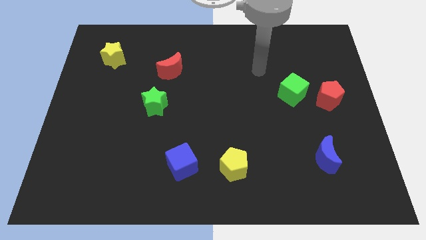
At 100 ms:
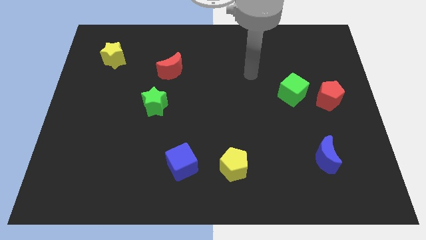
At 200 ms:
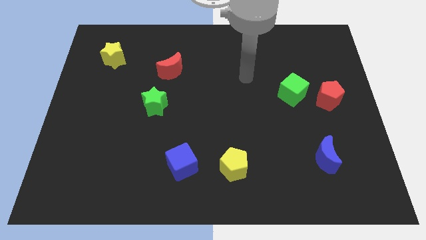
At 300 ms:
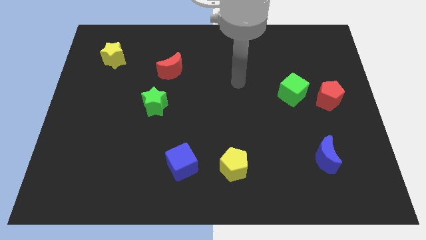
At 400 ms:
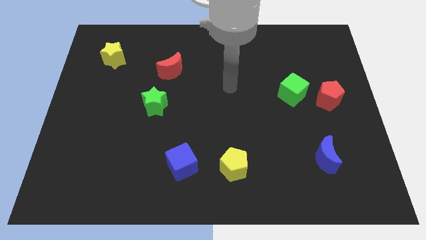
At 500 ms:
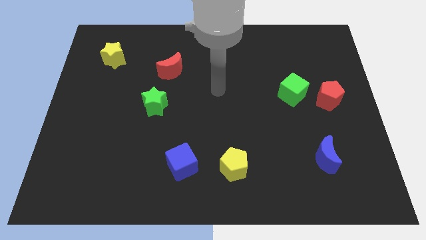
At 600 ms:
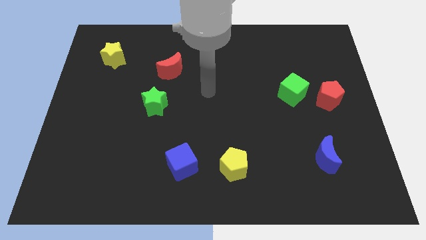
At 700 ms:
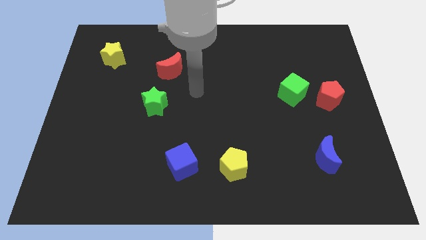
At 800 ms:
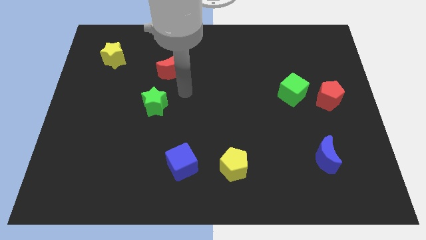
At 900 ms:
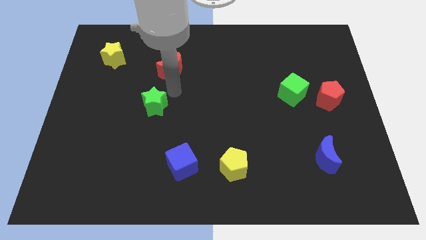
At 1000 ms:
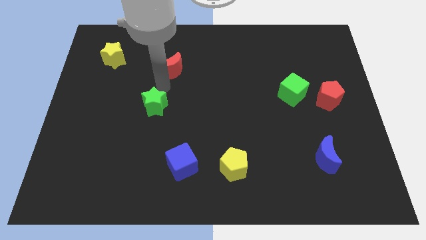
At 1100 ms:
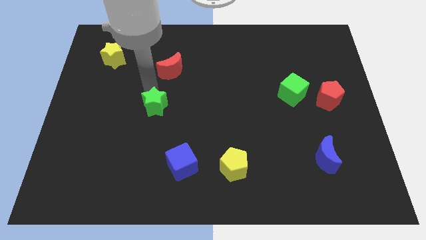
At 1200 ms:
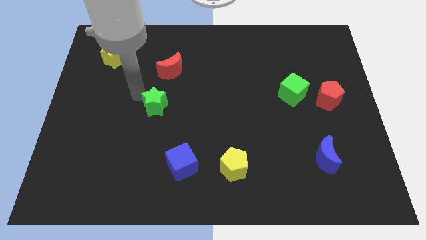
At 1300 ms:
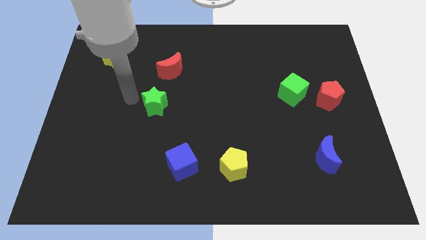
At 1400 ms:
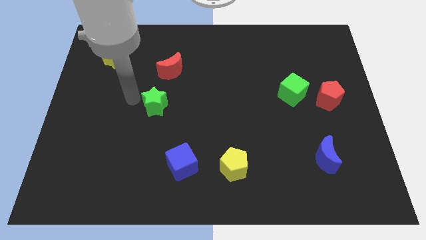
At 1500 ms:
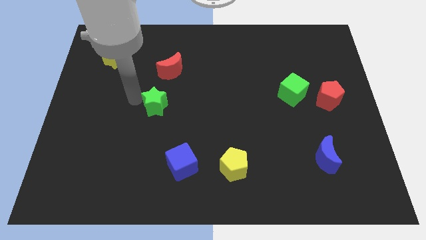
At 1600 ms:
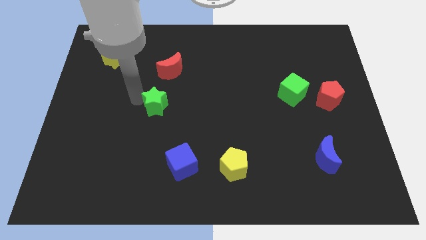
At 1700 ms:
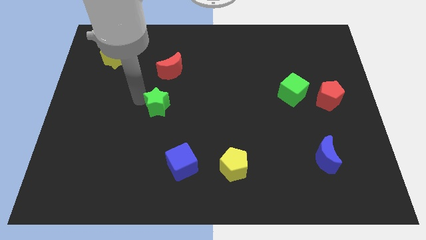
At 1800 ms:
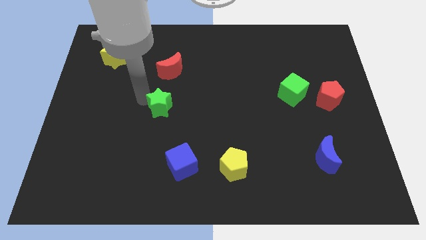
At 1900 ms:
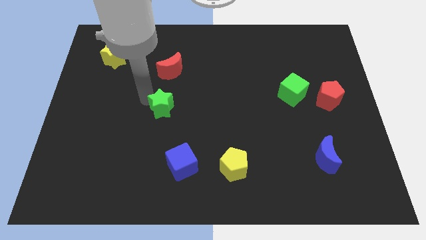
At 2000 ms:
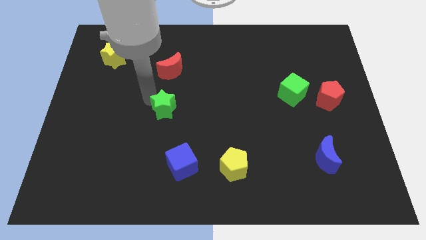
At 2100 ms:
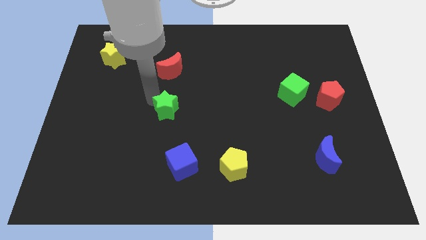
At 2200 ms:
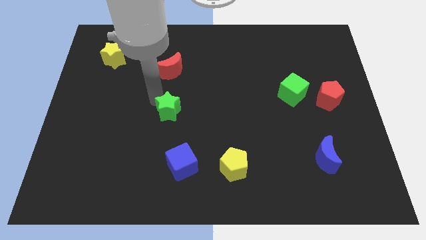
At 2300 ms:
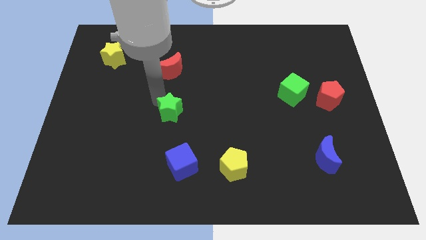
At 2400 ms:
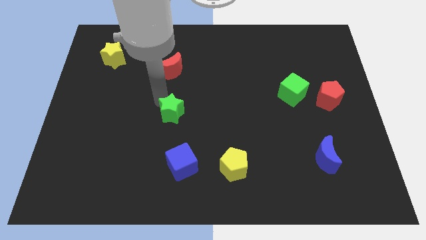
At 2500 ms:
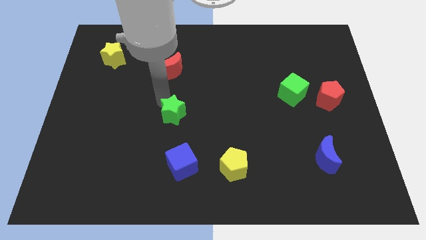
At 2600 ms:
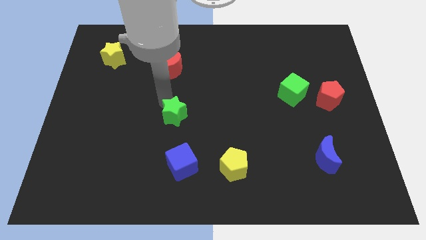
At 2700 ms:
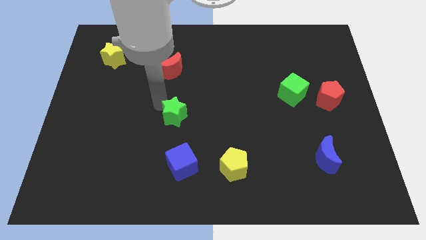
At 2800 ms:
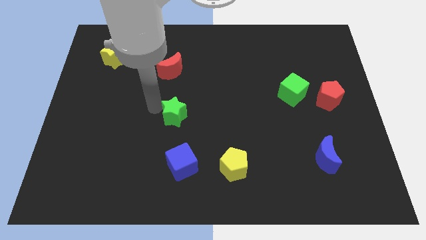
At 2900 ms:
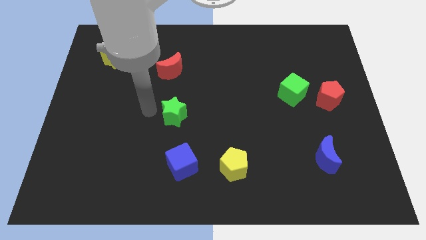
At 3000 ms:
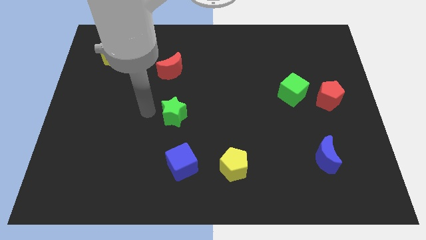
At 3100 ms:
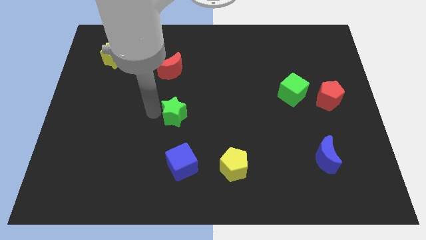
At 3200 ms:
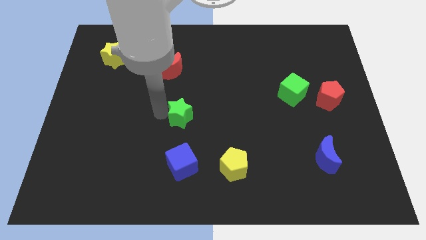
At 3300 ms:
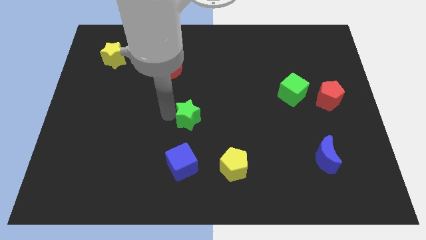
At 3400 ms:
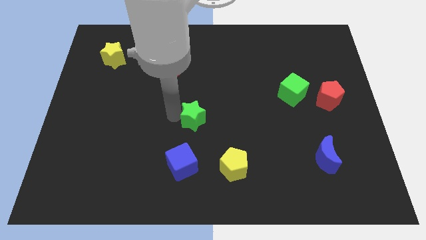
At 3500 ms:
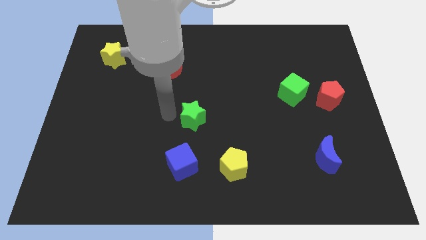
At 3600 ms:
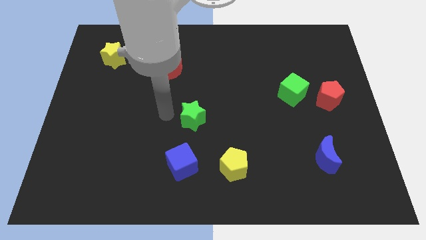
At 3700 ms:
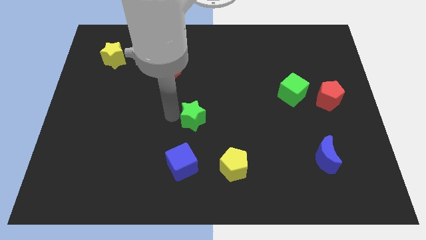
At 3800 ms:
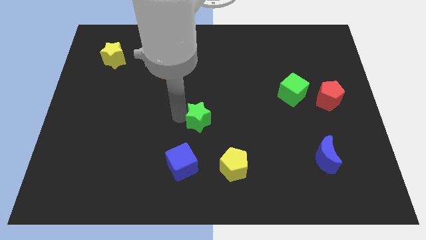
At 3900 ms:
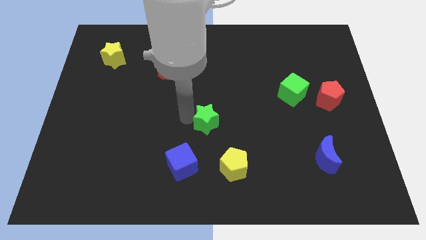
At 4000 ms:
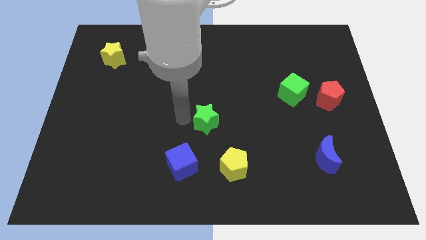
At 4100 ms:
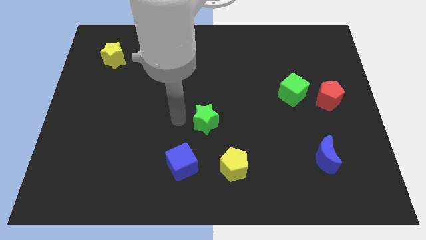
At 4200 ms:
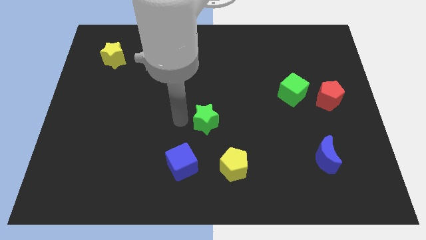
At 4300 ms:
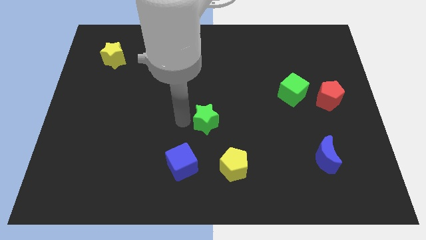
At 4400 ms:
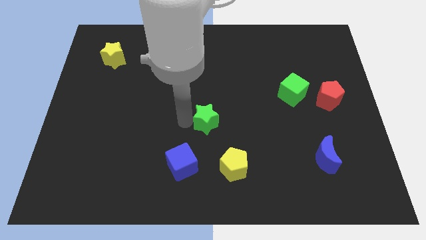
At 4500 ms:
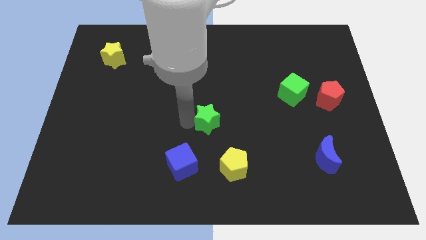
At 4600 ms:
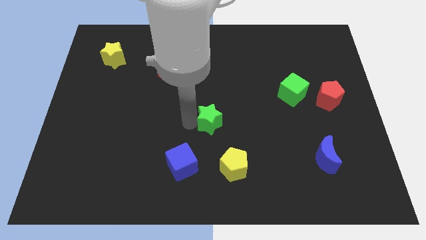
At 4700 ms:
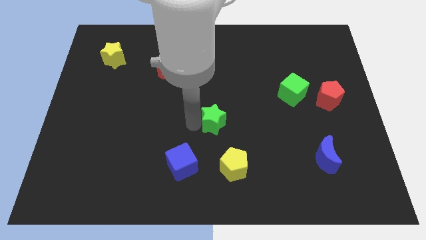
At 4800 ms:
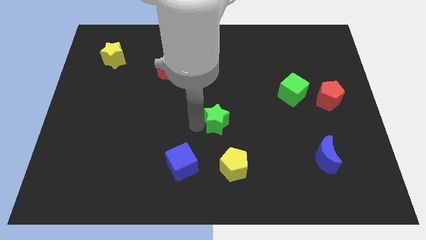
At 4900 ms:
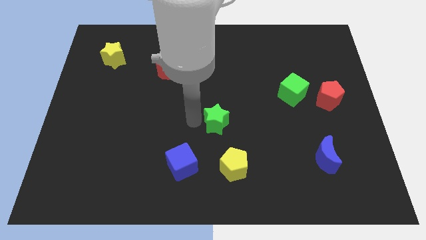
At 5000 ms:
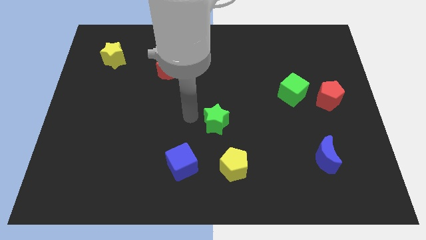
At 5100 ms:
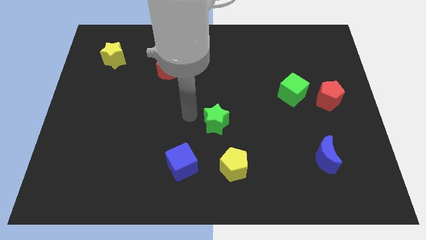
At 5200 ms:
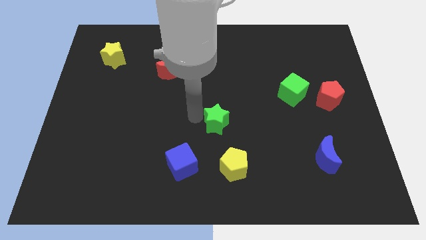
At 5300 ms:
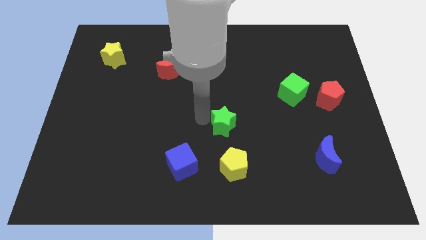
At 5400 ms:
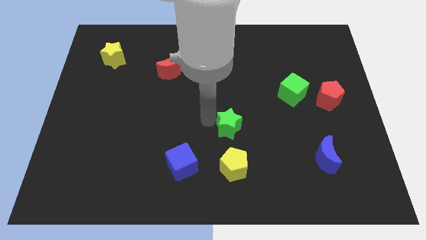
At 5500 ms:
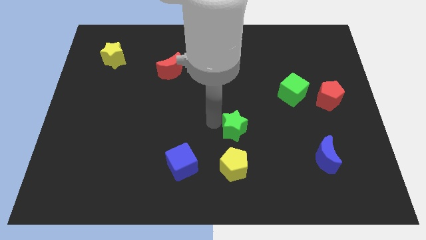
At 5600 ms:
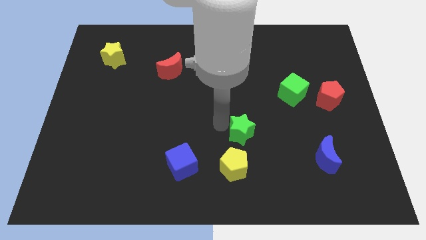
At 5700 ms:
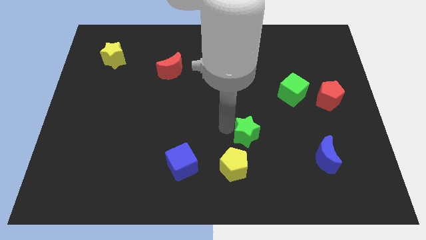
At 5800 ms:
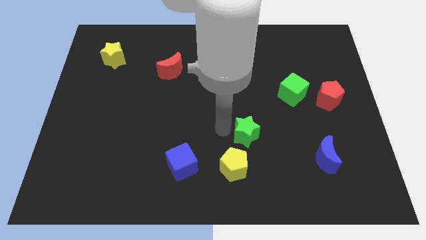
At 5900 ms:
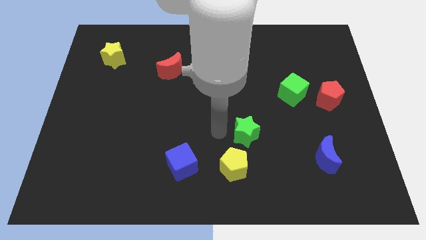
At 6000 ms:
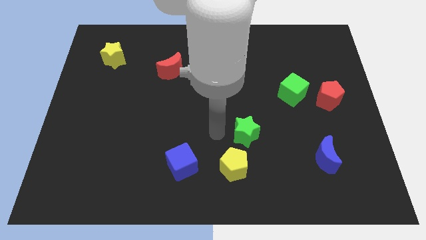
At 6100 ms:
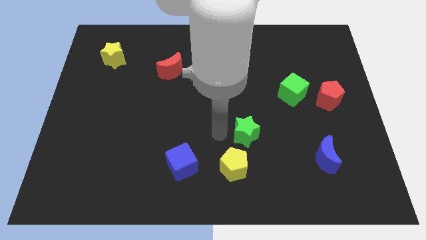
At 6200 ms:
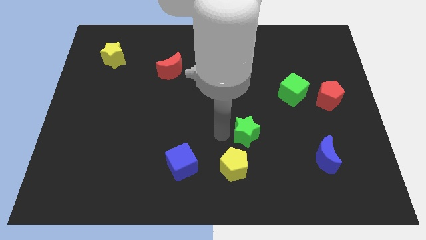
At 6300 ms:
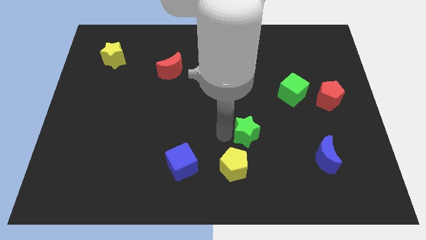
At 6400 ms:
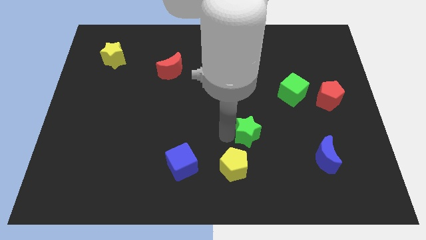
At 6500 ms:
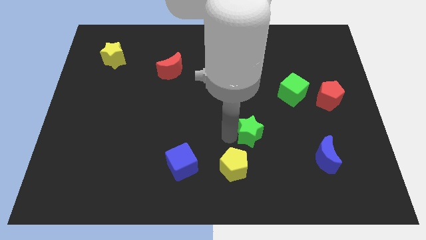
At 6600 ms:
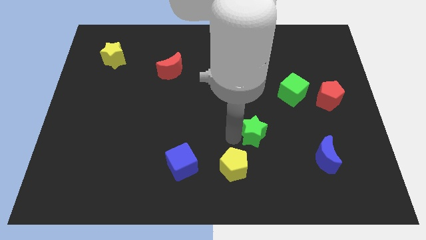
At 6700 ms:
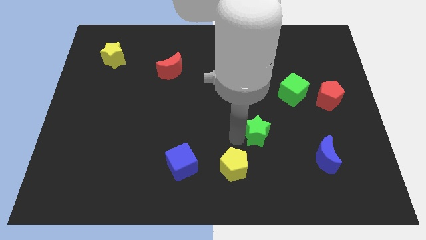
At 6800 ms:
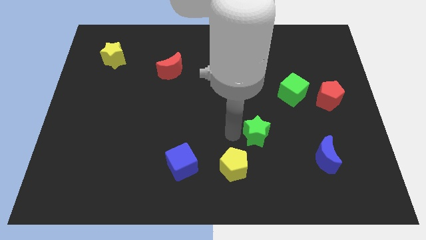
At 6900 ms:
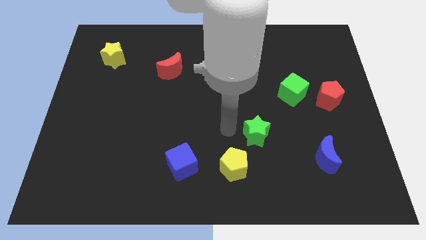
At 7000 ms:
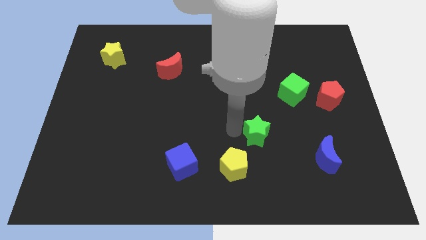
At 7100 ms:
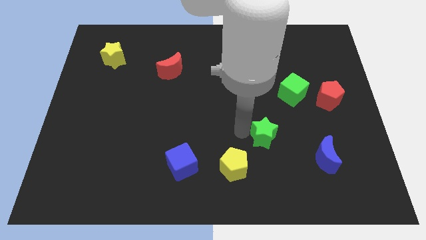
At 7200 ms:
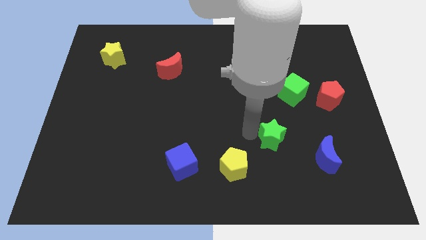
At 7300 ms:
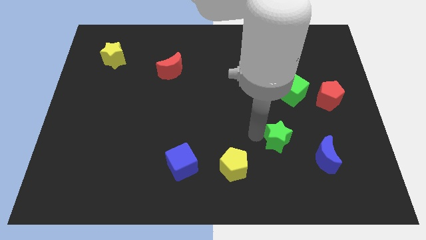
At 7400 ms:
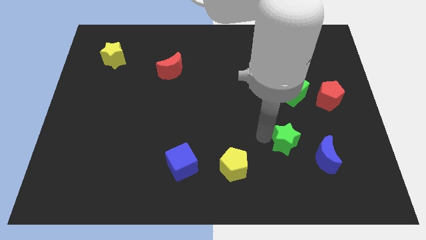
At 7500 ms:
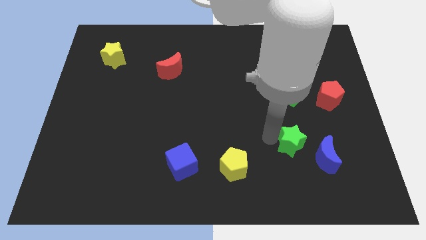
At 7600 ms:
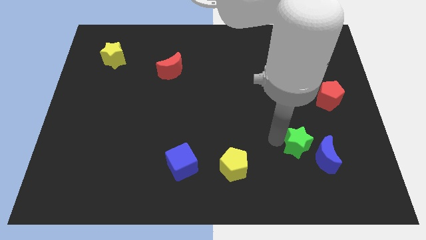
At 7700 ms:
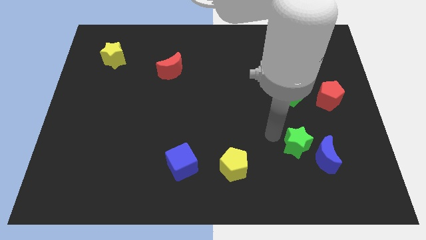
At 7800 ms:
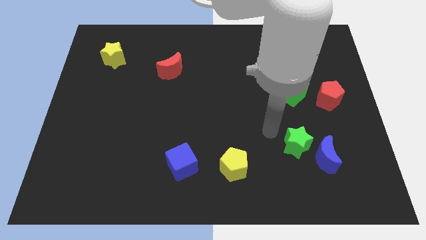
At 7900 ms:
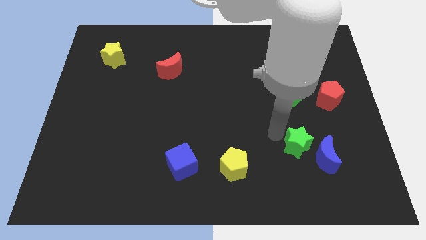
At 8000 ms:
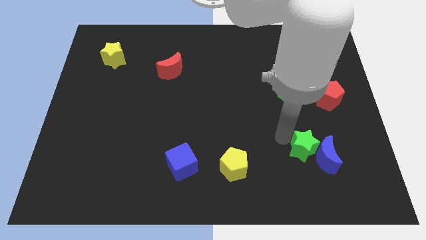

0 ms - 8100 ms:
put the green star to the blue moon
